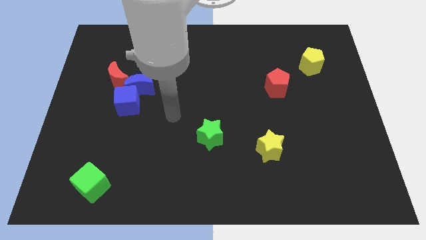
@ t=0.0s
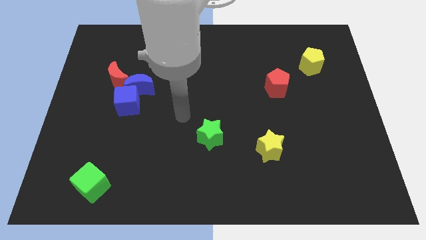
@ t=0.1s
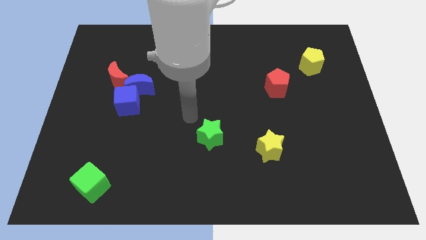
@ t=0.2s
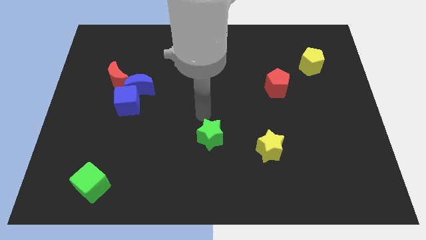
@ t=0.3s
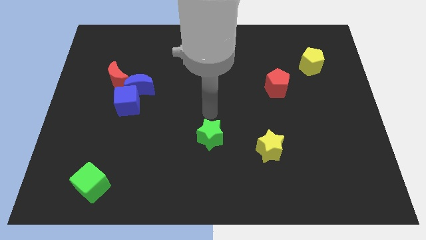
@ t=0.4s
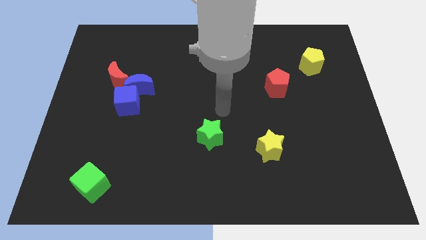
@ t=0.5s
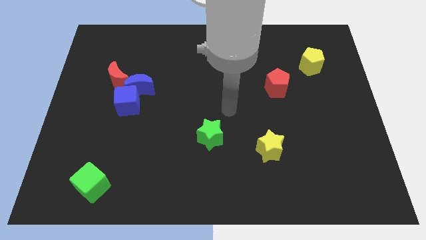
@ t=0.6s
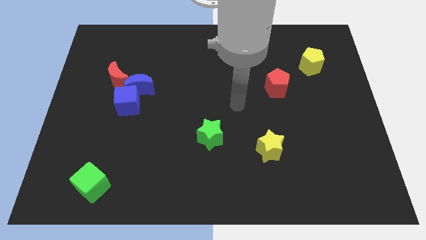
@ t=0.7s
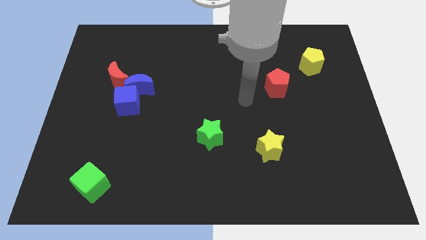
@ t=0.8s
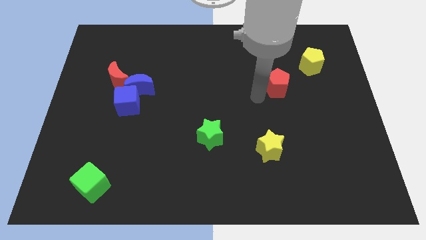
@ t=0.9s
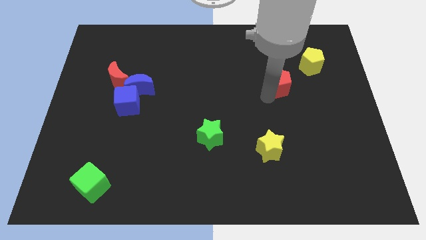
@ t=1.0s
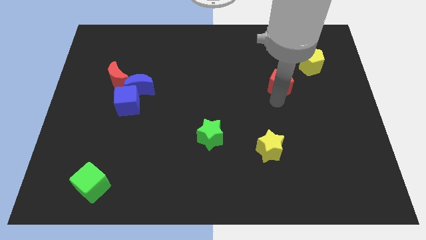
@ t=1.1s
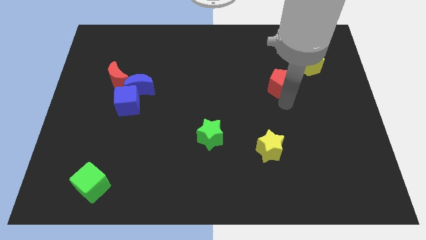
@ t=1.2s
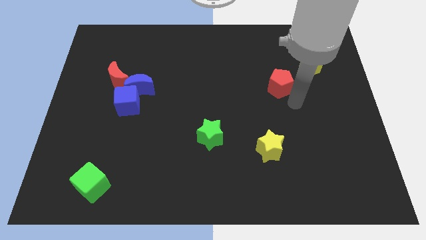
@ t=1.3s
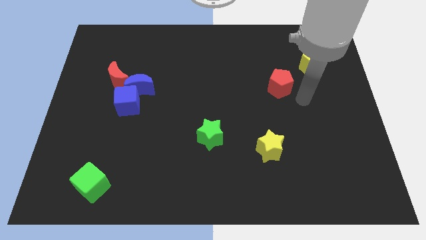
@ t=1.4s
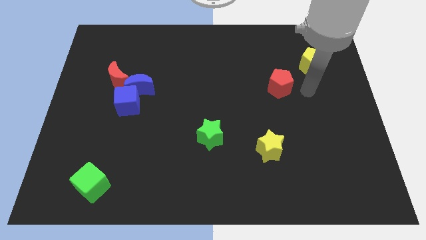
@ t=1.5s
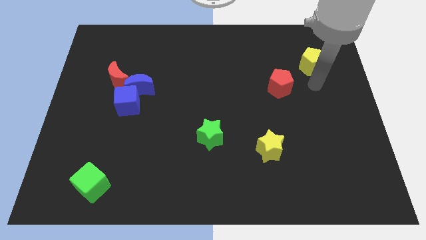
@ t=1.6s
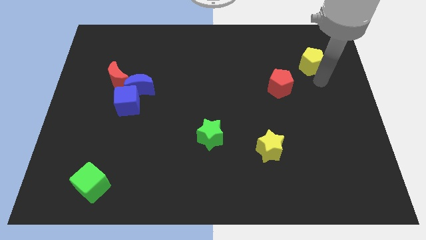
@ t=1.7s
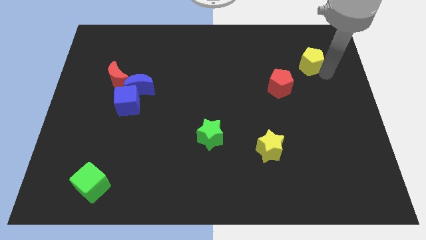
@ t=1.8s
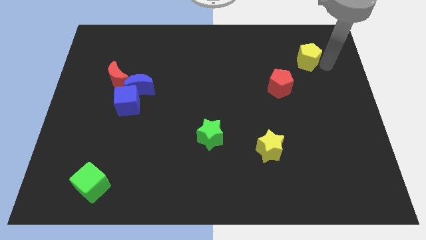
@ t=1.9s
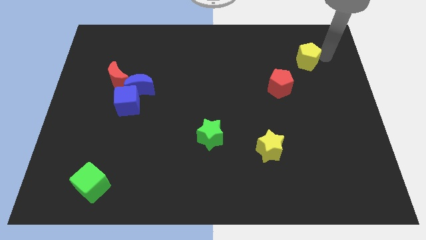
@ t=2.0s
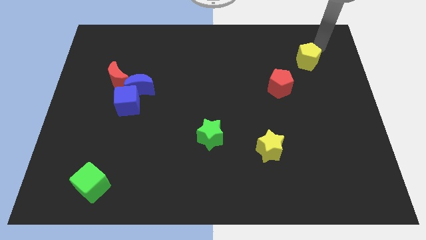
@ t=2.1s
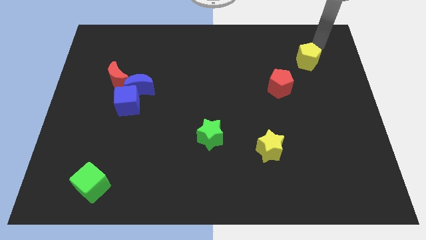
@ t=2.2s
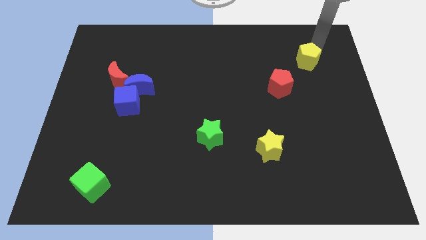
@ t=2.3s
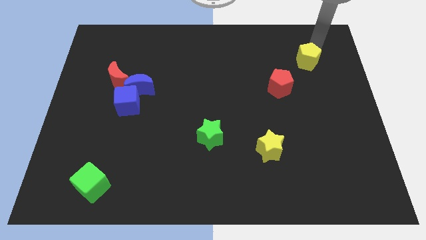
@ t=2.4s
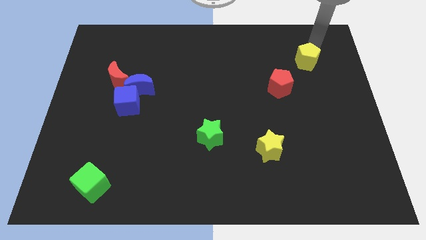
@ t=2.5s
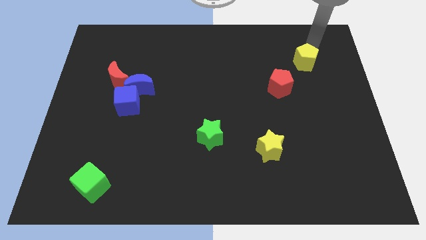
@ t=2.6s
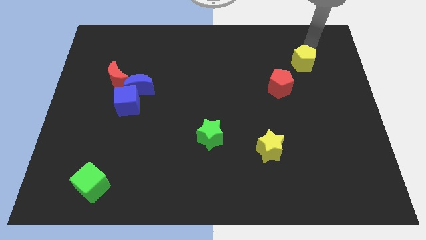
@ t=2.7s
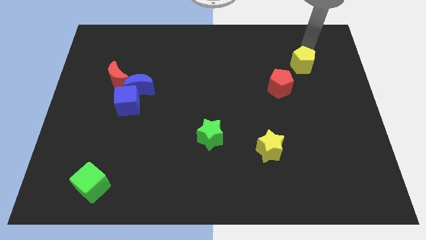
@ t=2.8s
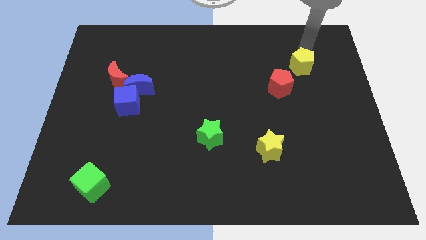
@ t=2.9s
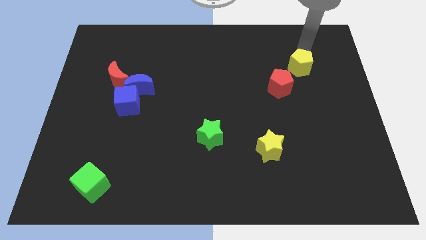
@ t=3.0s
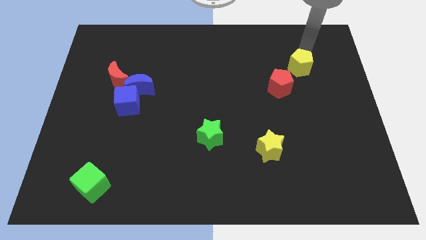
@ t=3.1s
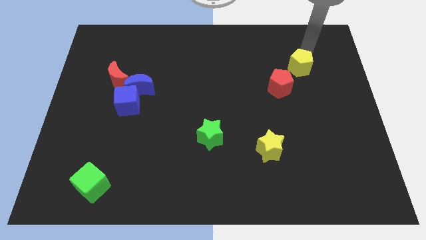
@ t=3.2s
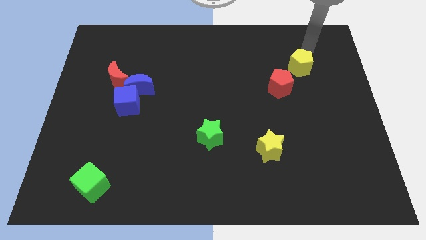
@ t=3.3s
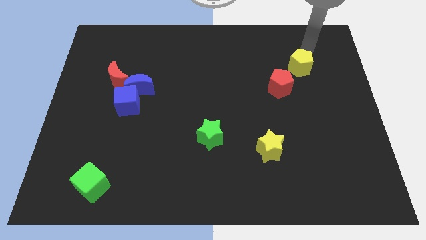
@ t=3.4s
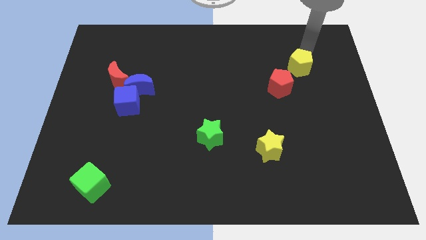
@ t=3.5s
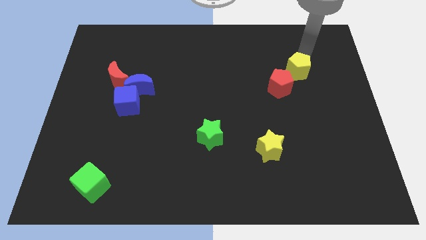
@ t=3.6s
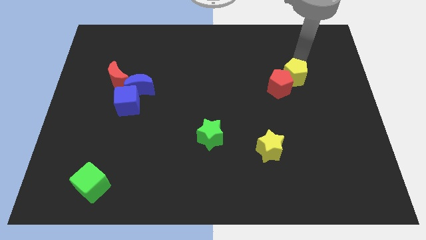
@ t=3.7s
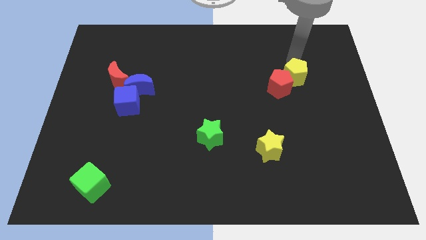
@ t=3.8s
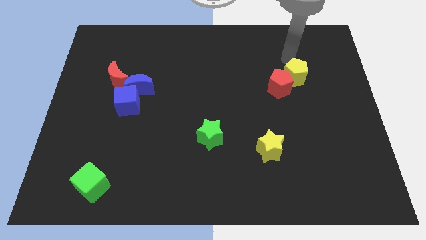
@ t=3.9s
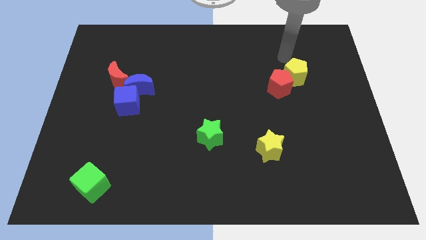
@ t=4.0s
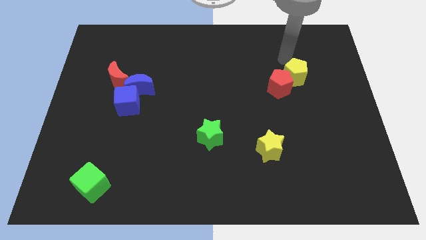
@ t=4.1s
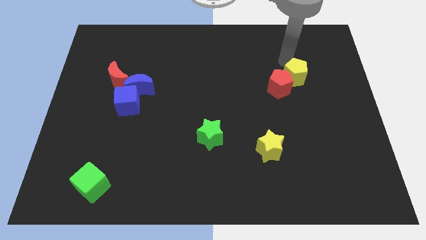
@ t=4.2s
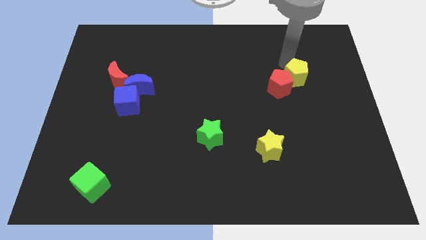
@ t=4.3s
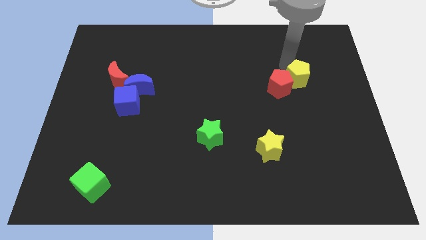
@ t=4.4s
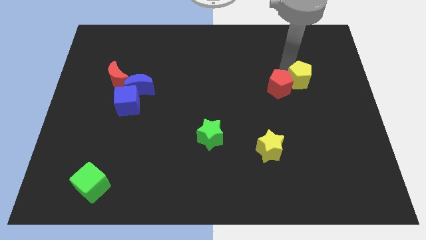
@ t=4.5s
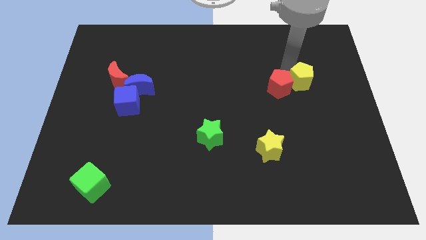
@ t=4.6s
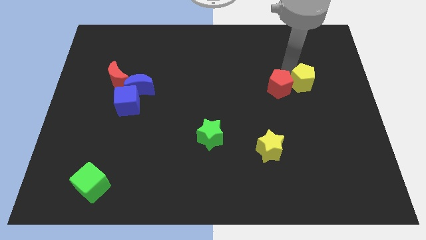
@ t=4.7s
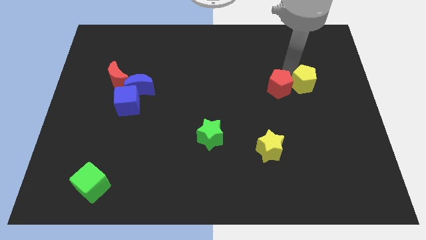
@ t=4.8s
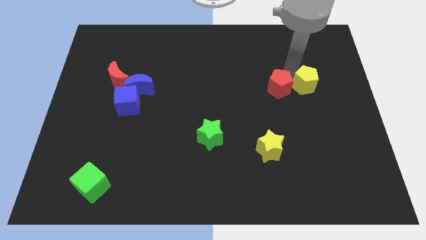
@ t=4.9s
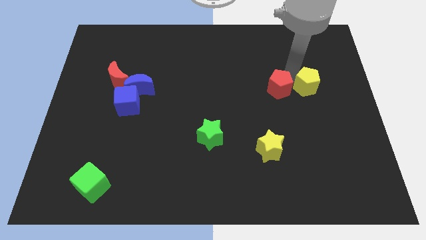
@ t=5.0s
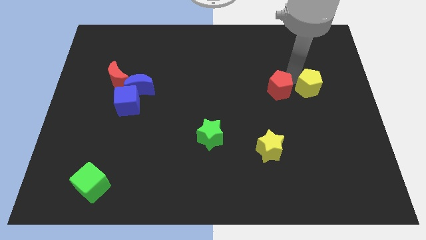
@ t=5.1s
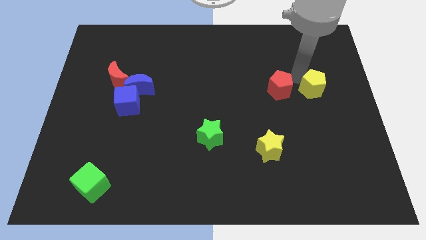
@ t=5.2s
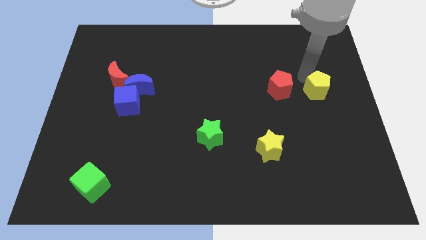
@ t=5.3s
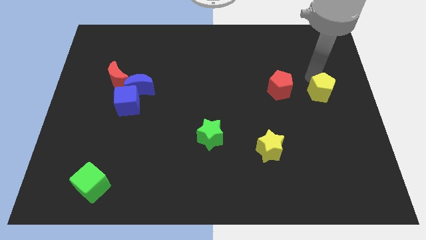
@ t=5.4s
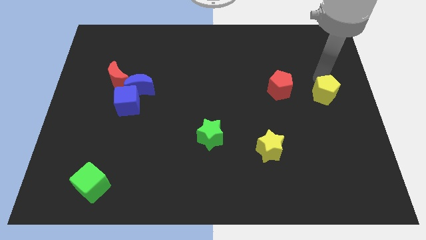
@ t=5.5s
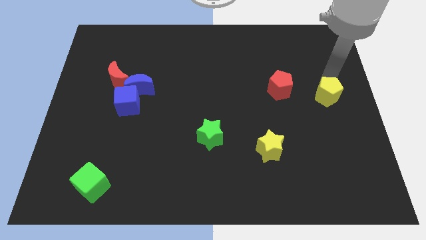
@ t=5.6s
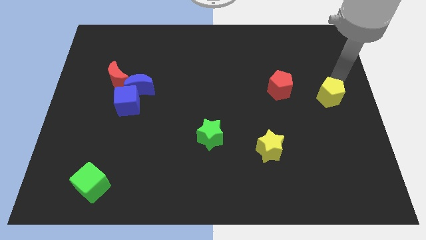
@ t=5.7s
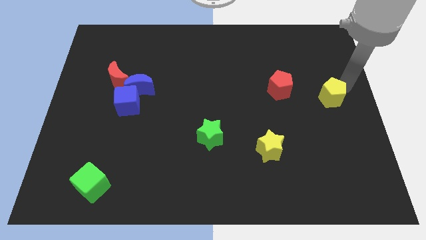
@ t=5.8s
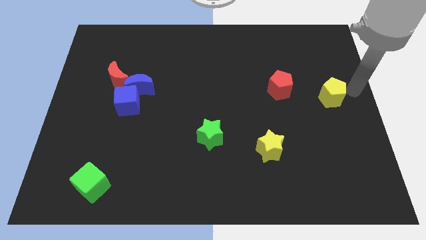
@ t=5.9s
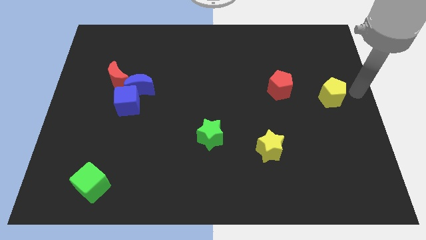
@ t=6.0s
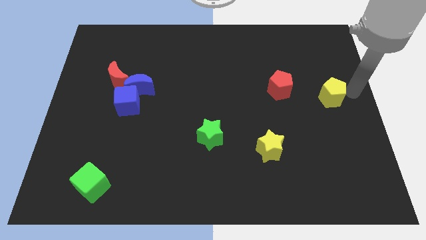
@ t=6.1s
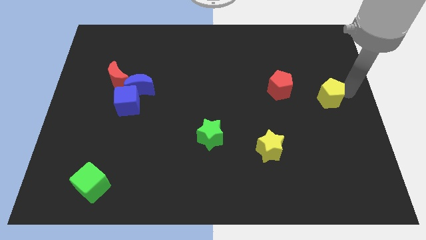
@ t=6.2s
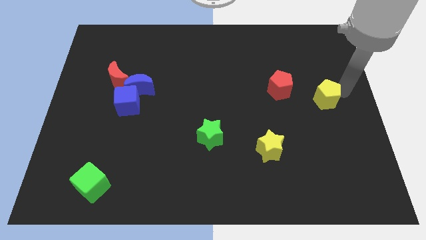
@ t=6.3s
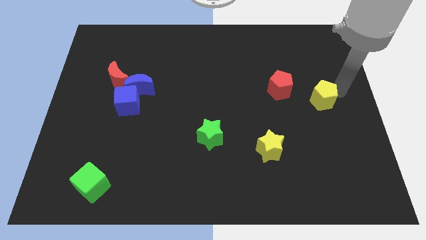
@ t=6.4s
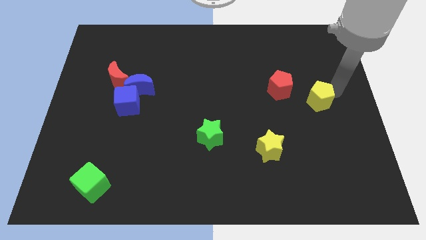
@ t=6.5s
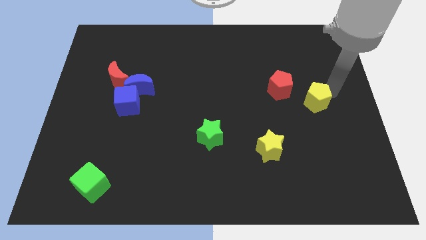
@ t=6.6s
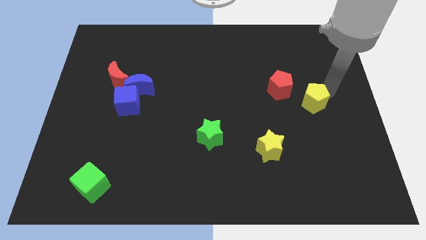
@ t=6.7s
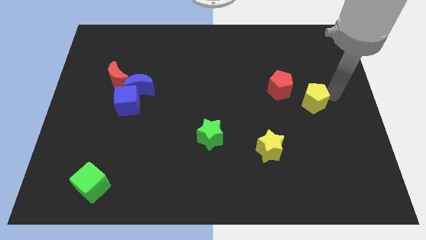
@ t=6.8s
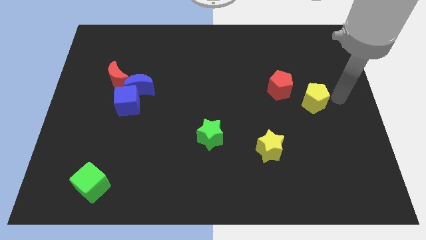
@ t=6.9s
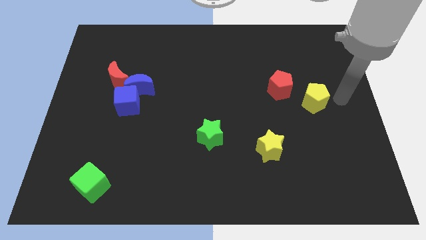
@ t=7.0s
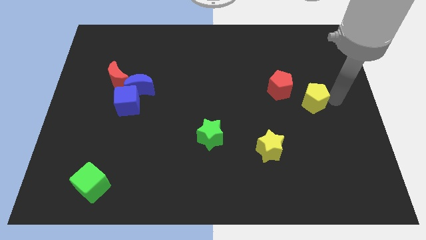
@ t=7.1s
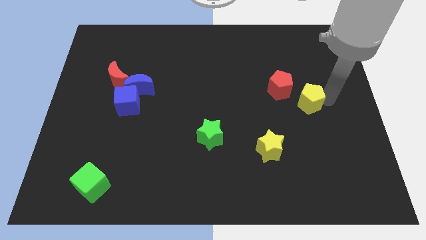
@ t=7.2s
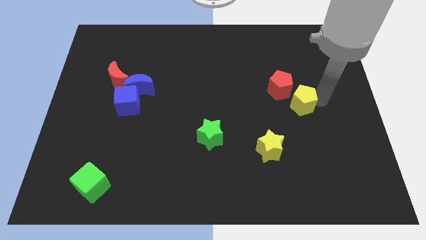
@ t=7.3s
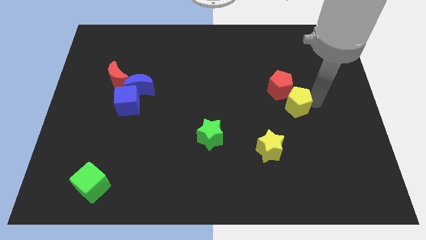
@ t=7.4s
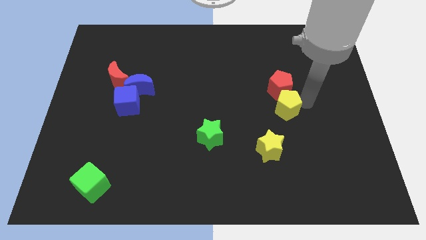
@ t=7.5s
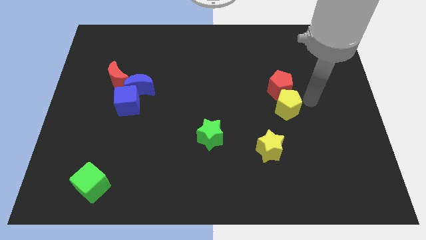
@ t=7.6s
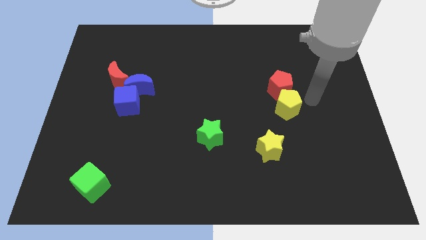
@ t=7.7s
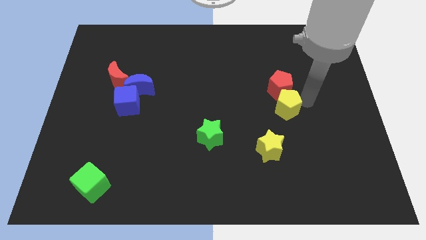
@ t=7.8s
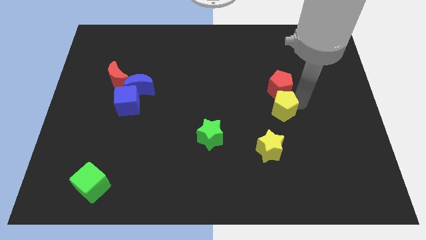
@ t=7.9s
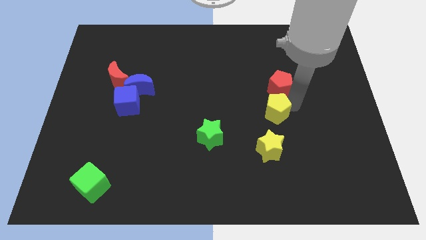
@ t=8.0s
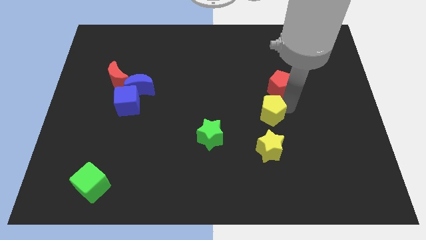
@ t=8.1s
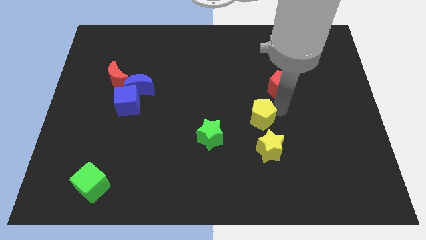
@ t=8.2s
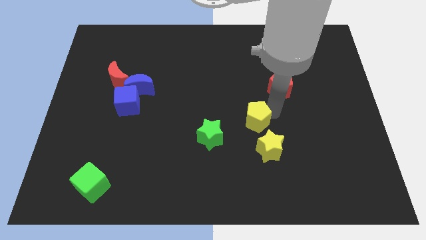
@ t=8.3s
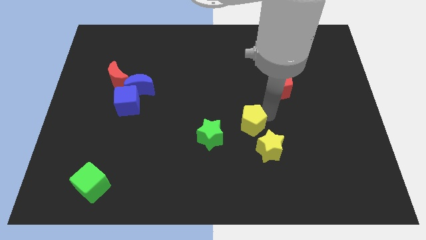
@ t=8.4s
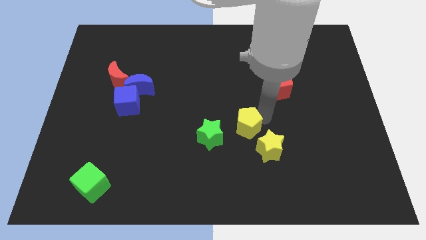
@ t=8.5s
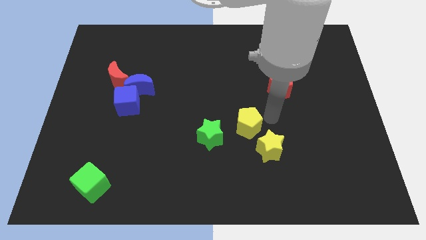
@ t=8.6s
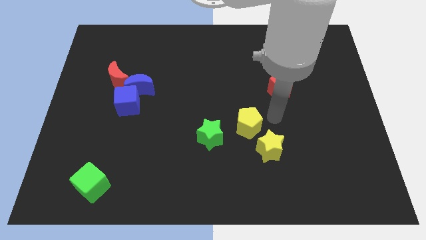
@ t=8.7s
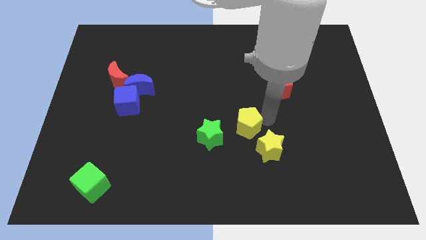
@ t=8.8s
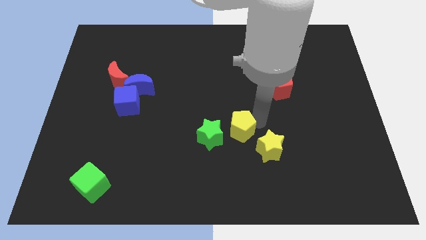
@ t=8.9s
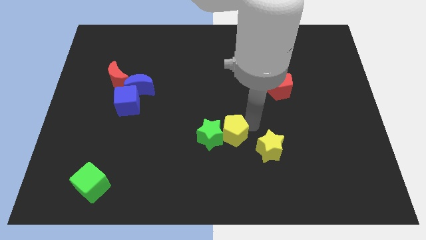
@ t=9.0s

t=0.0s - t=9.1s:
put the yellow pentagon towards the green star
